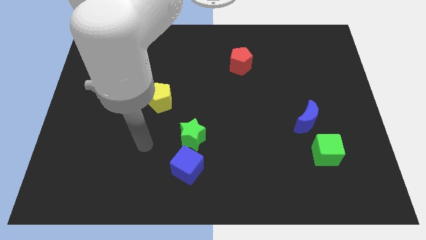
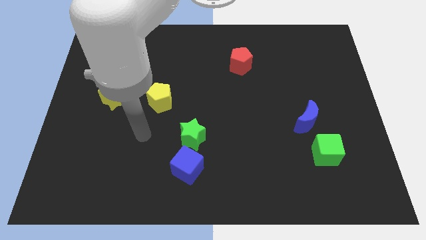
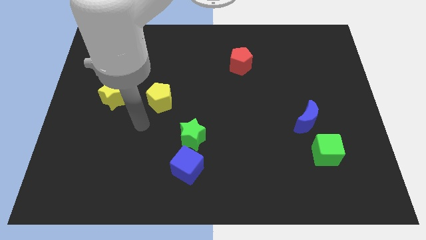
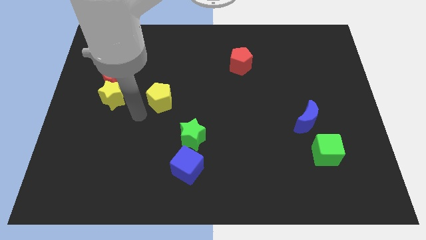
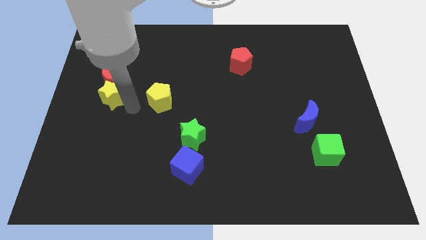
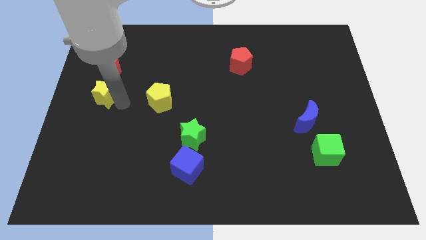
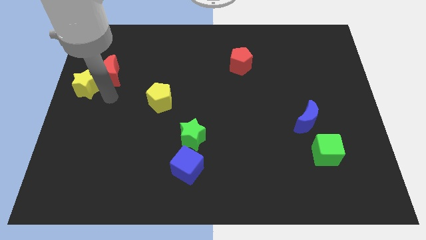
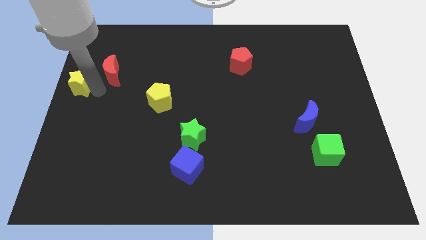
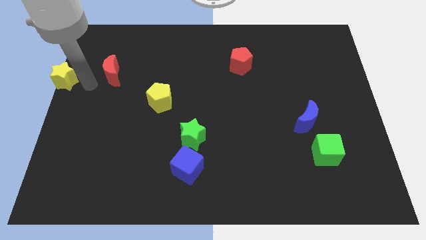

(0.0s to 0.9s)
pull the red moon apart from the yellow star

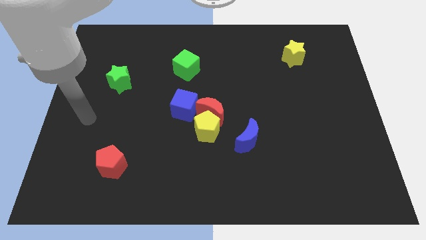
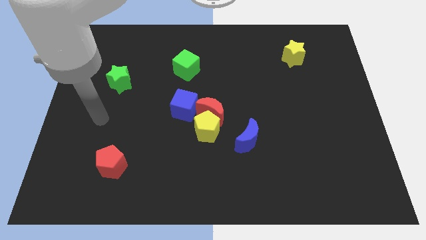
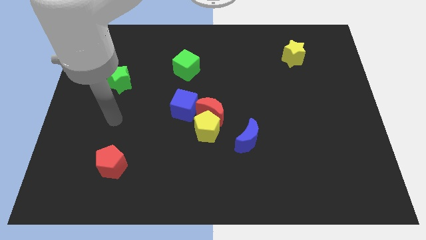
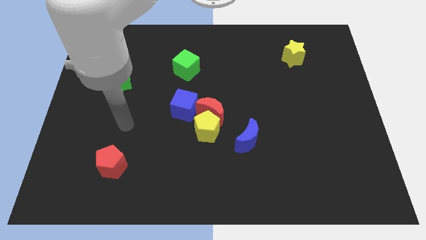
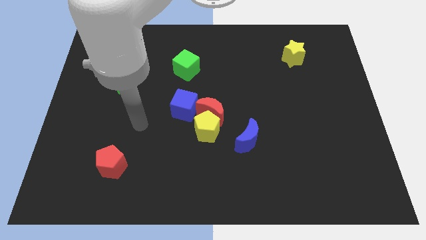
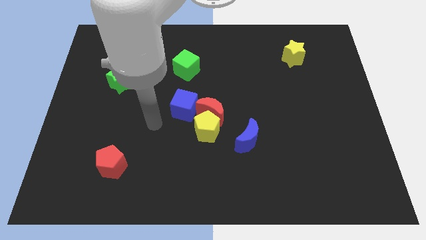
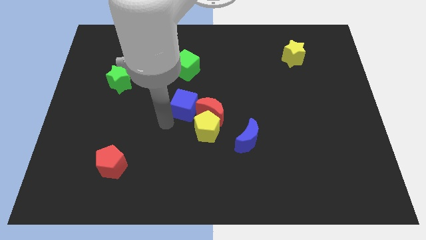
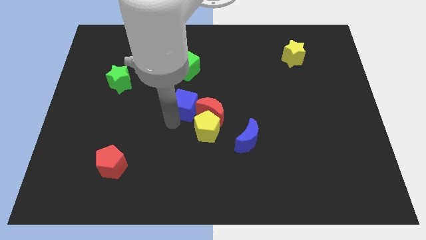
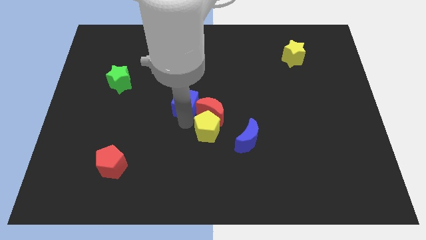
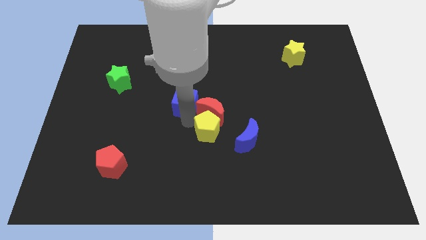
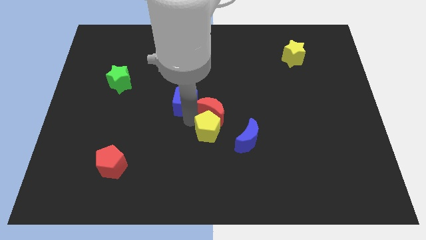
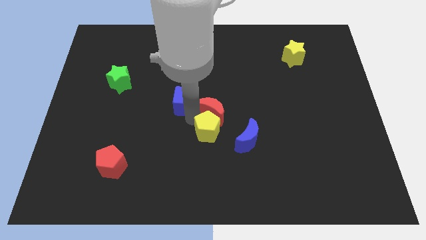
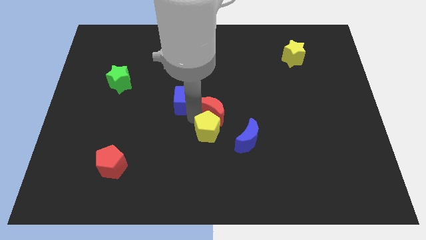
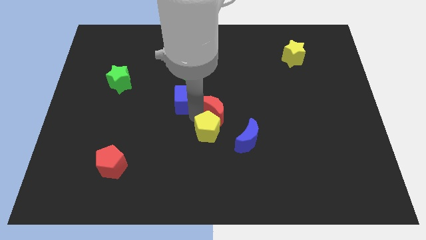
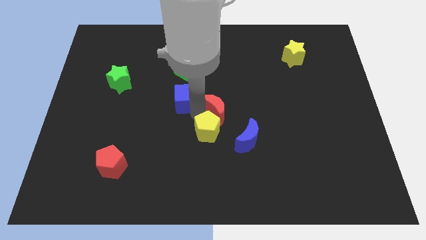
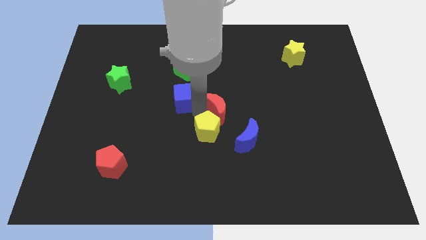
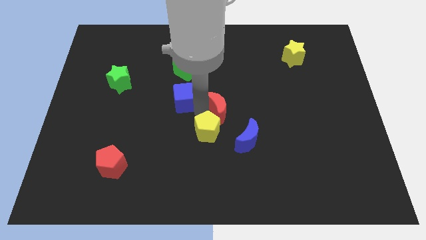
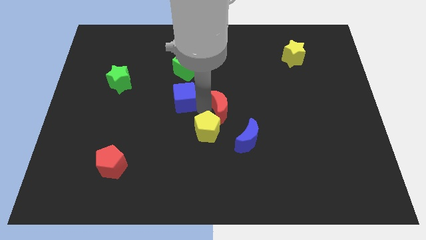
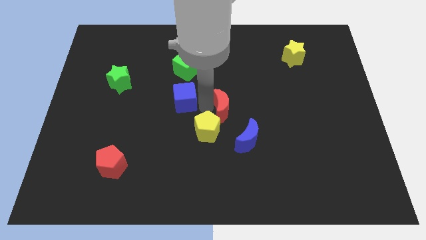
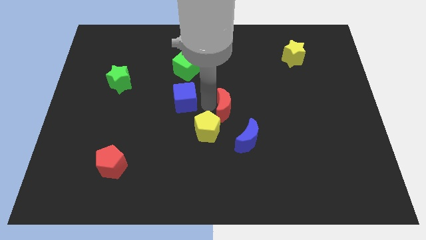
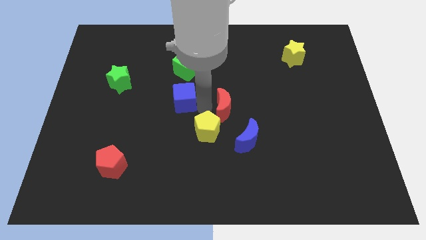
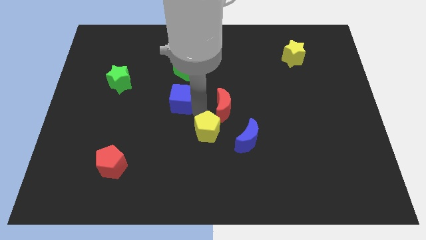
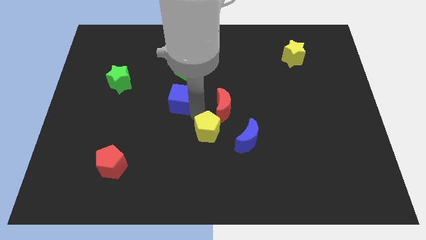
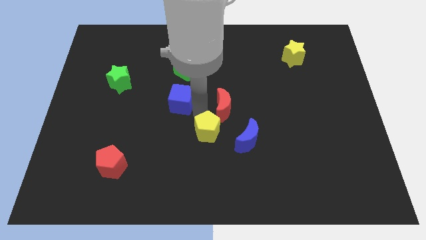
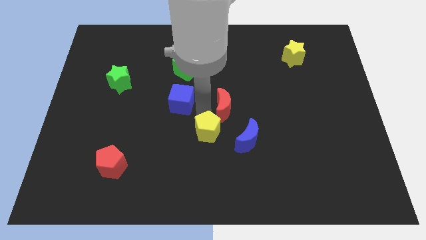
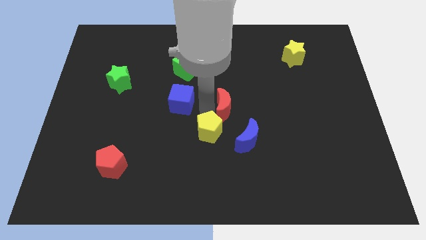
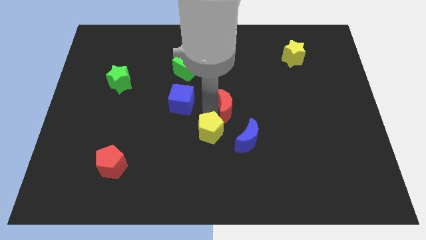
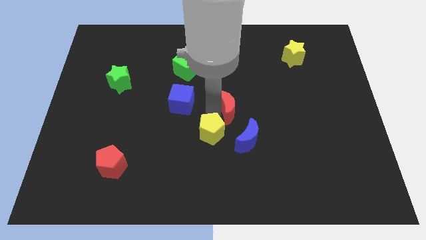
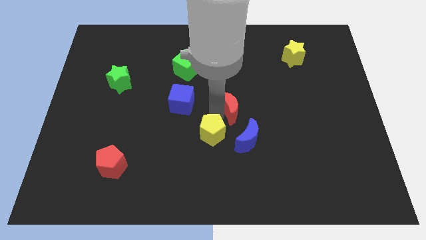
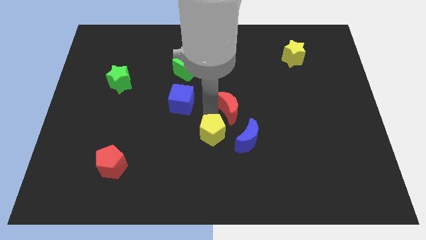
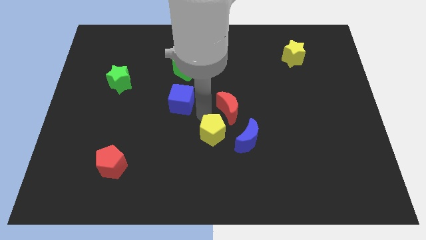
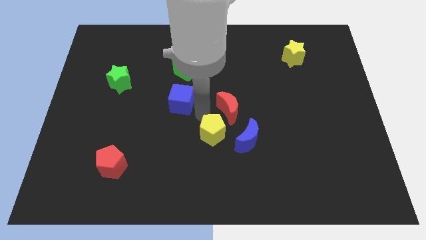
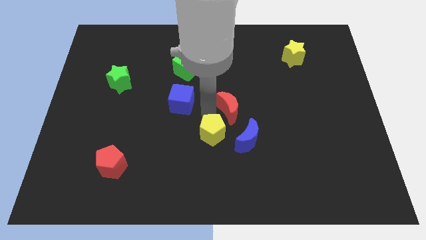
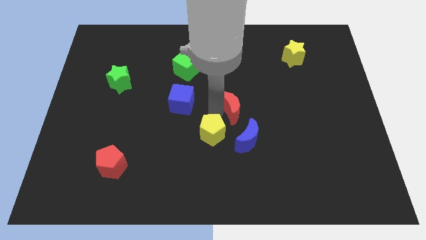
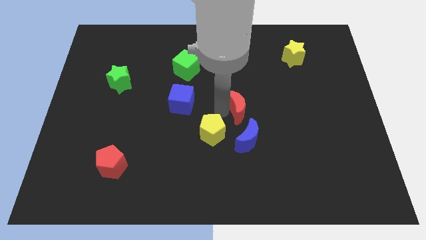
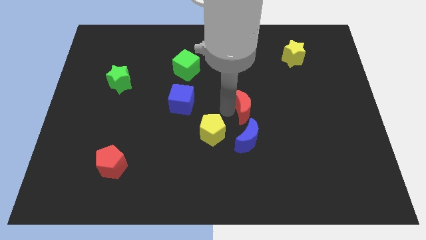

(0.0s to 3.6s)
move the red moon away from the yellow pentagon and blue cube

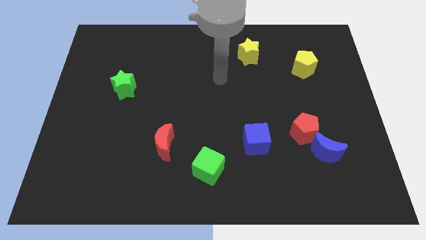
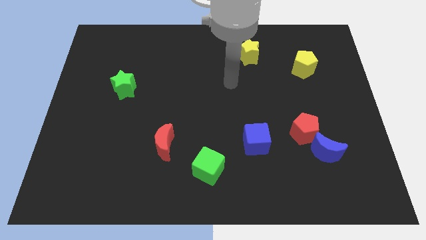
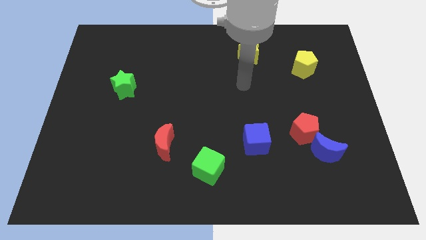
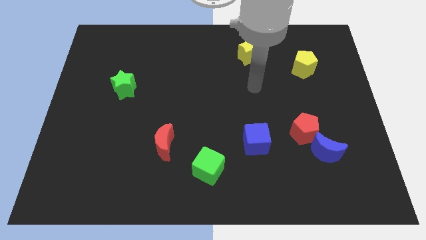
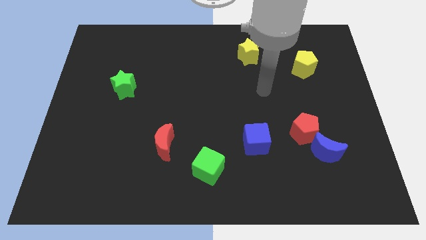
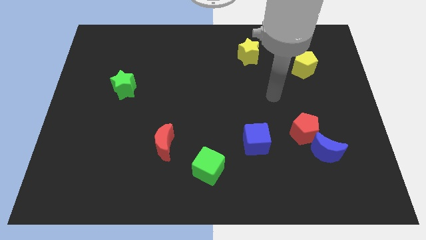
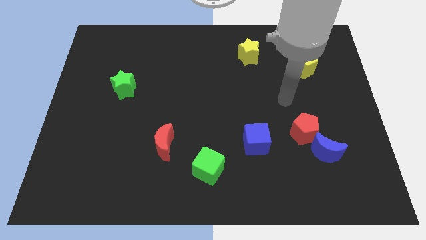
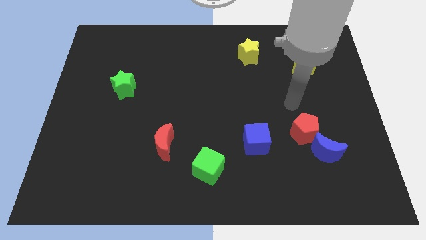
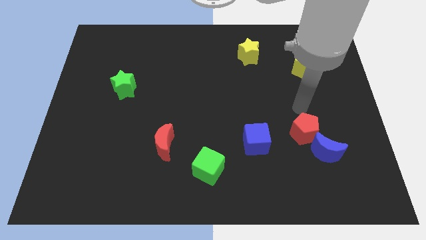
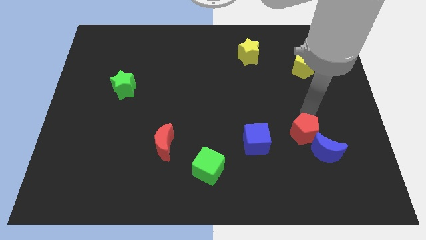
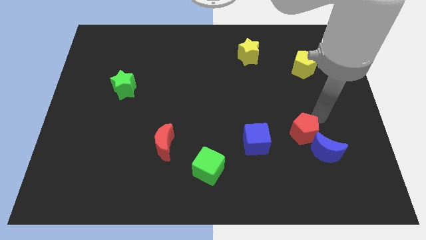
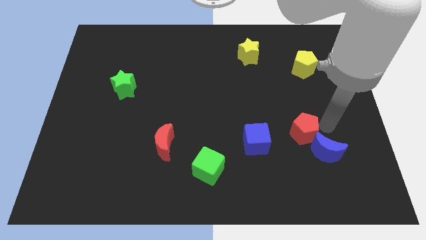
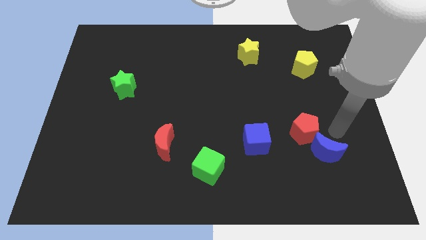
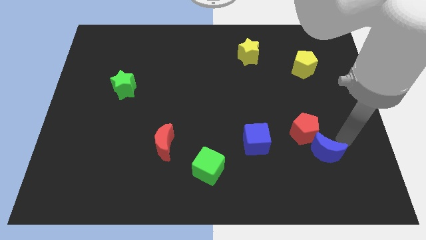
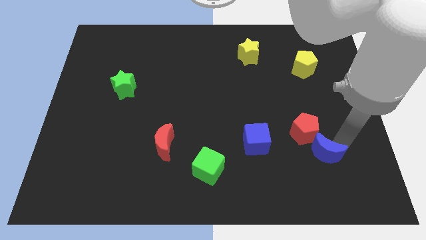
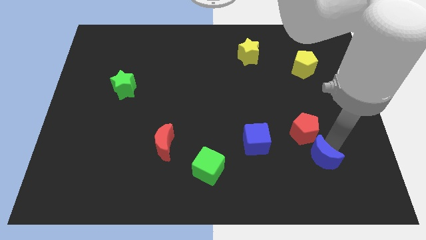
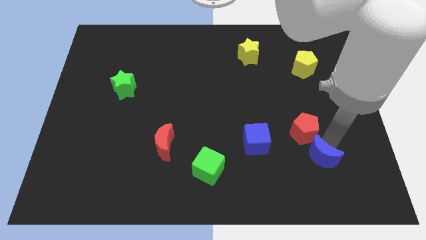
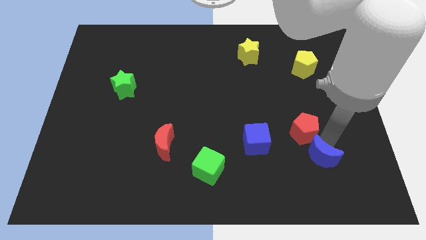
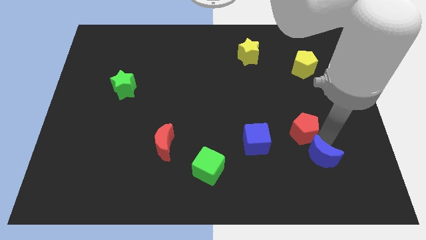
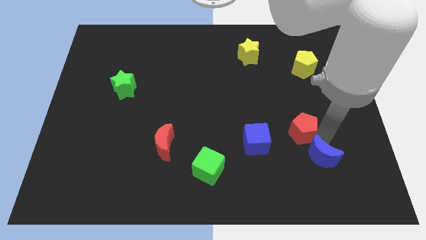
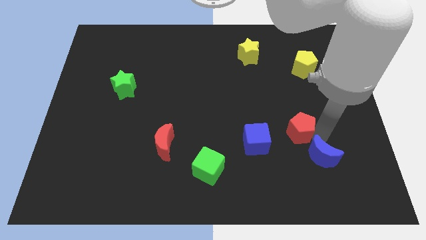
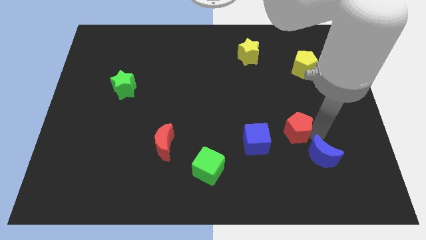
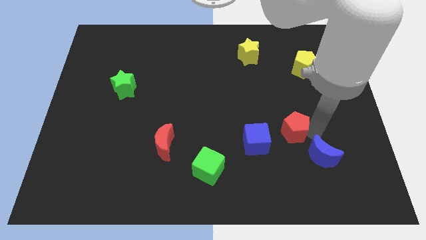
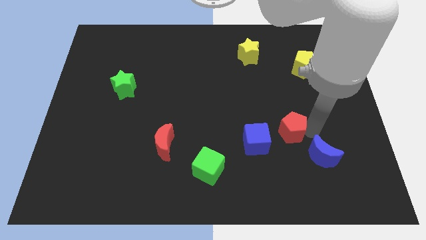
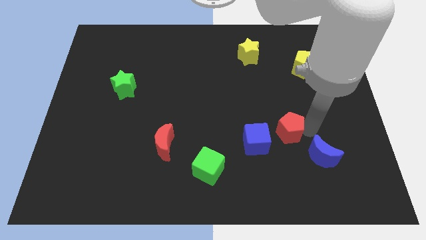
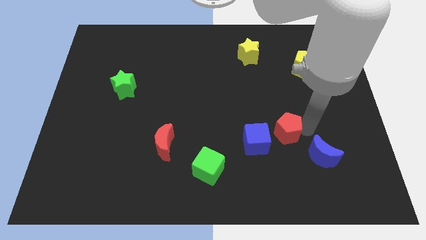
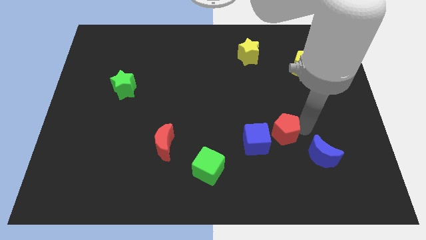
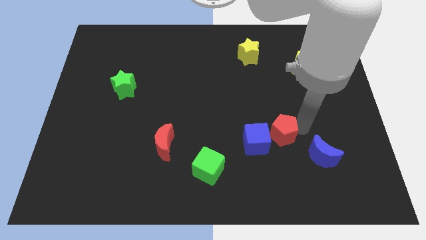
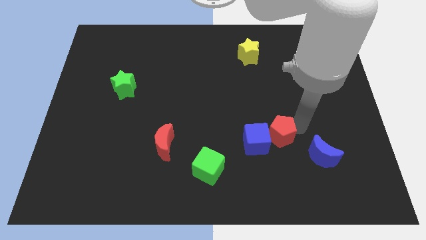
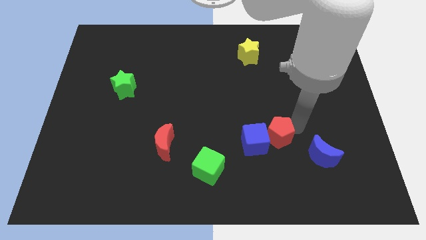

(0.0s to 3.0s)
move the red pentagon away from the blue moon

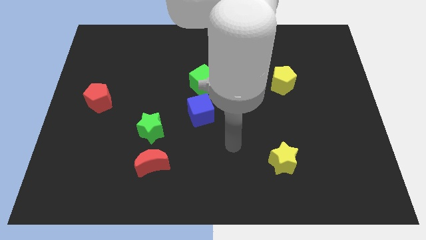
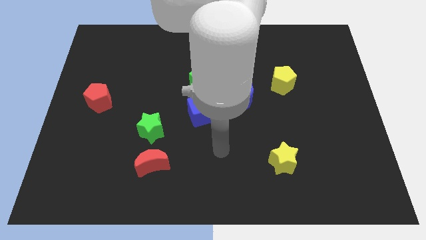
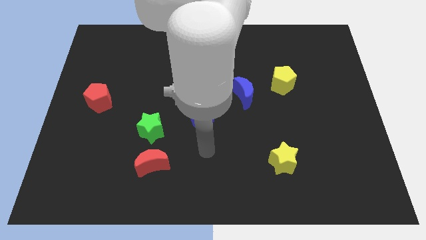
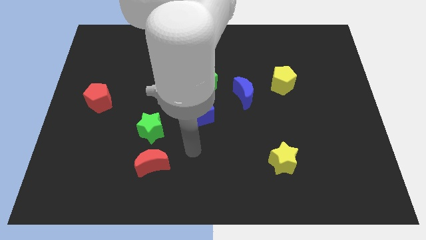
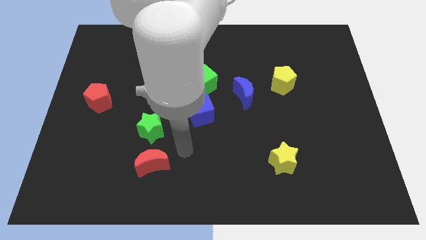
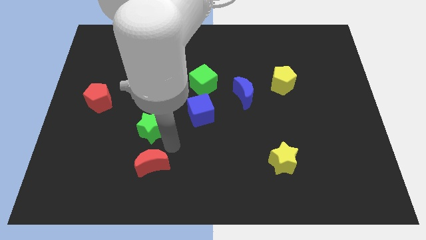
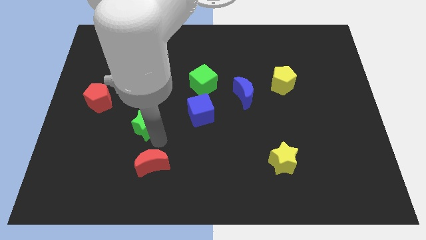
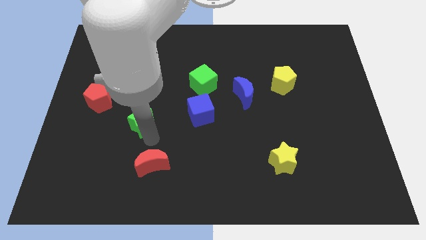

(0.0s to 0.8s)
pull the red moon apart from the green star

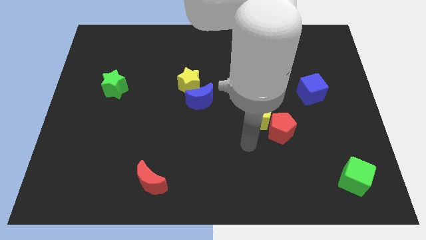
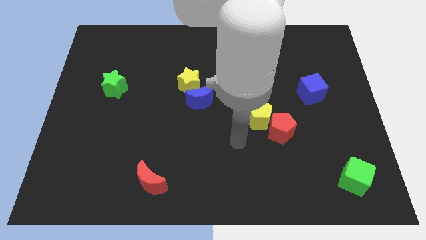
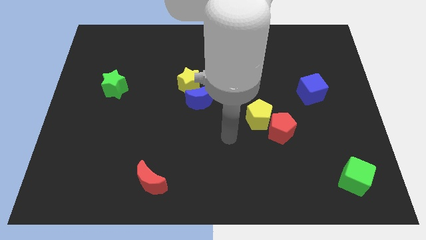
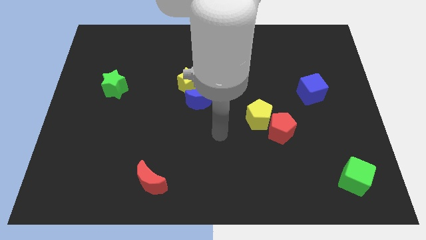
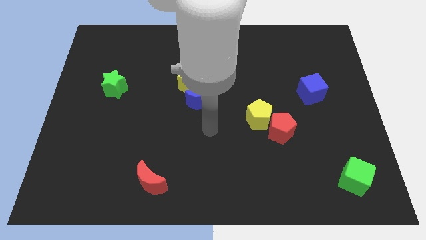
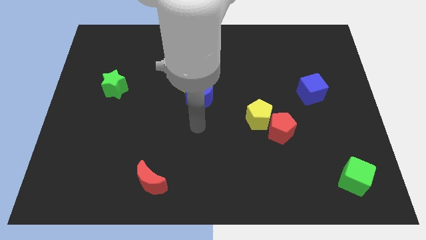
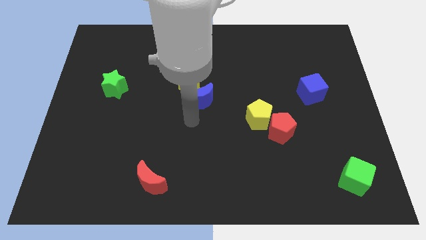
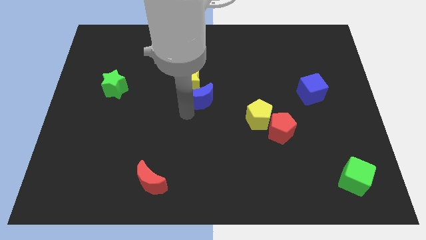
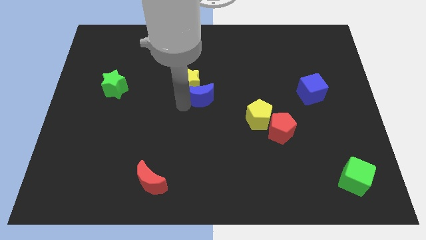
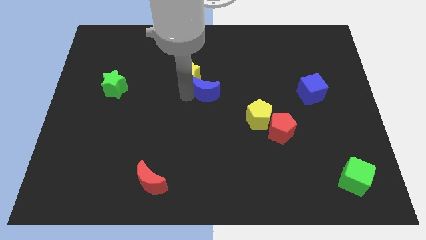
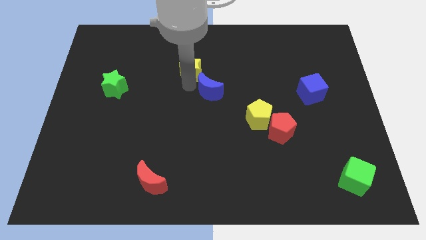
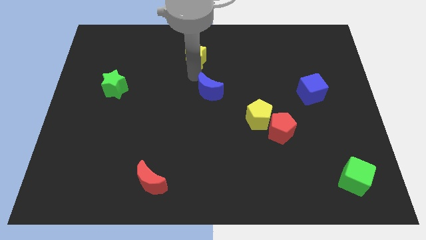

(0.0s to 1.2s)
separate the blue moon from the yellow star
